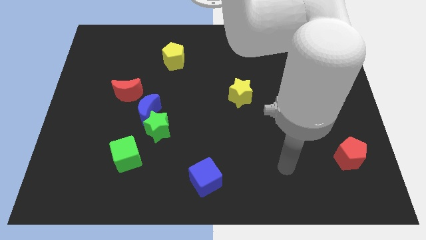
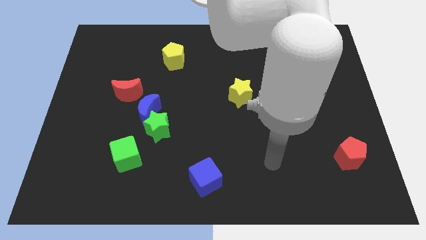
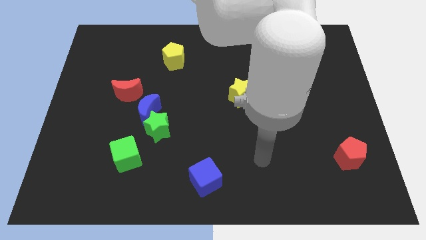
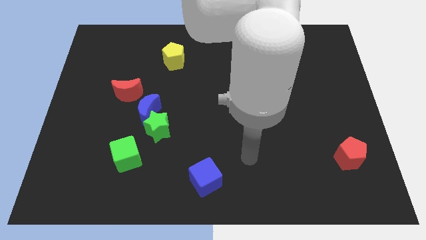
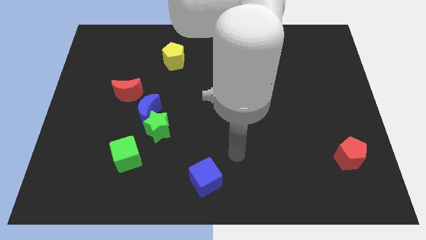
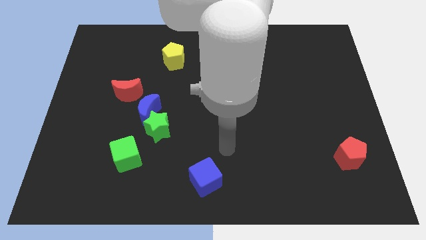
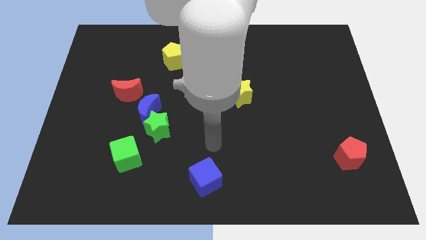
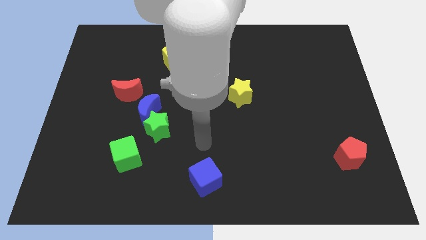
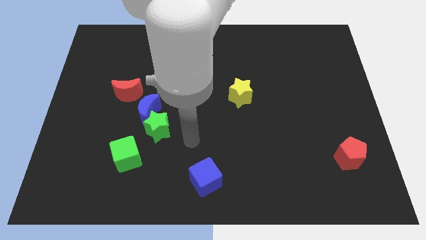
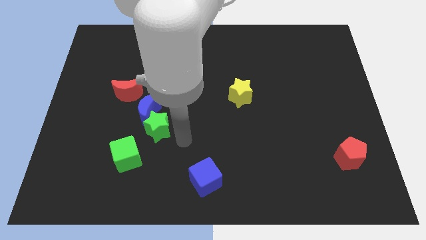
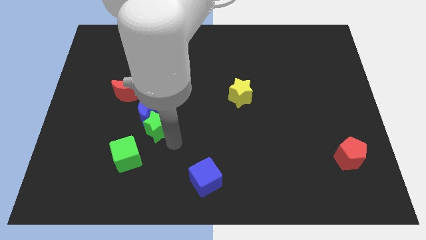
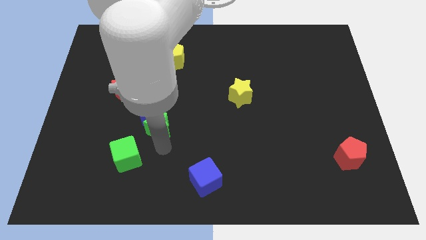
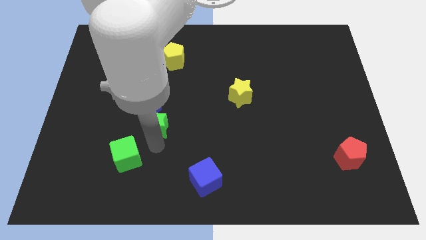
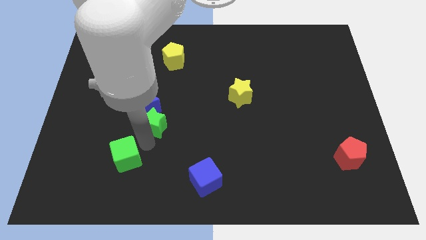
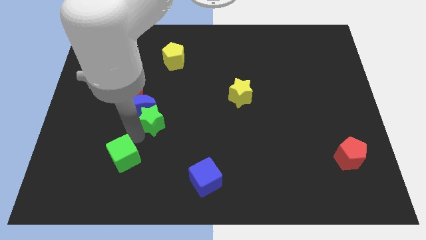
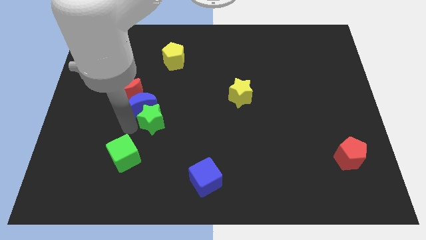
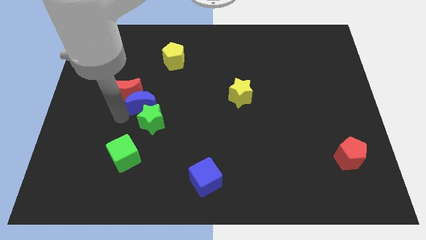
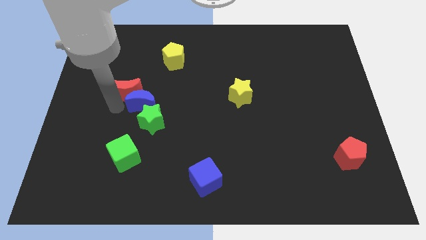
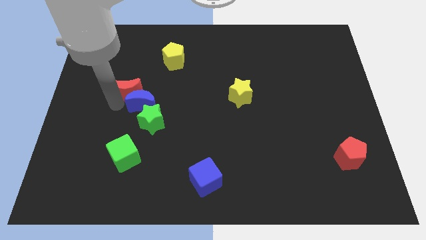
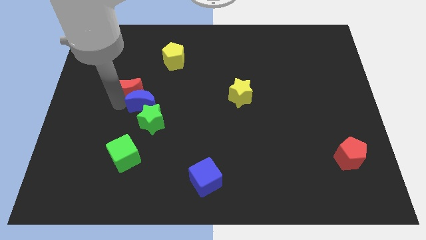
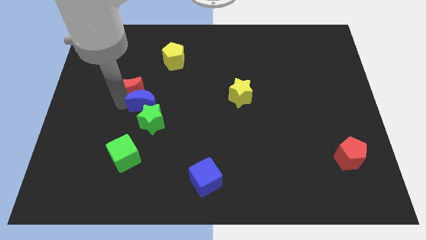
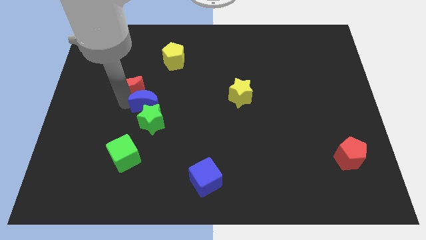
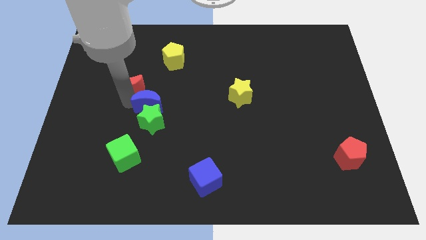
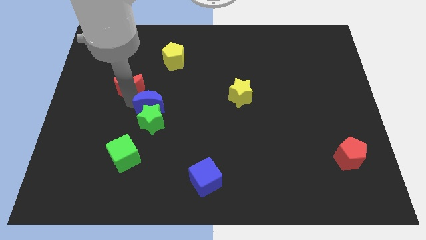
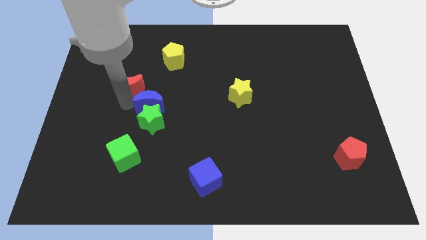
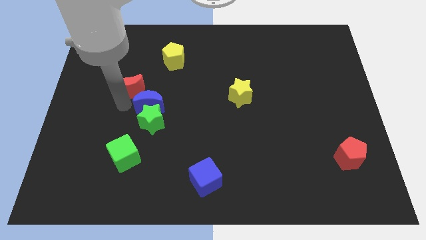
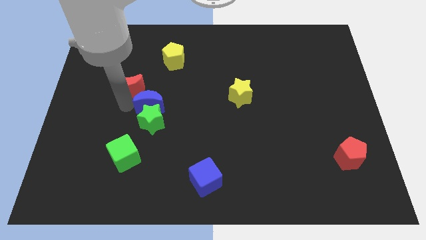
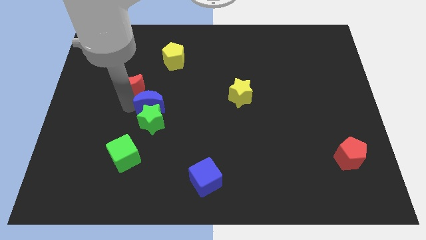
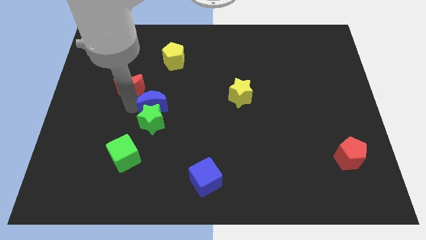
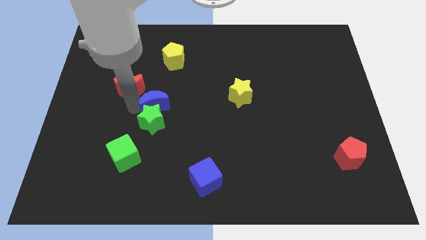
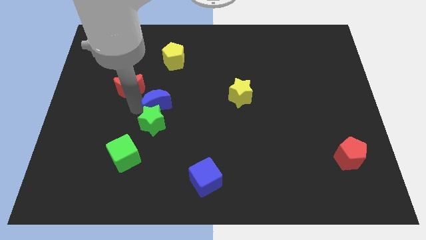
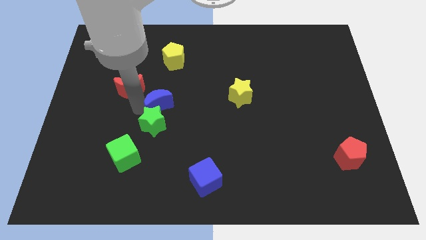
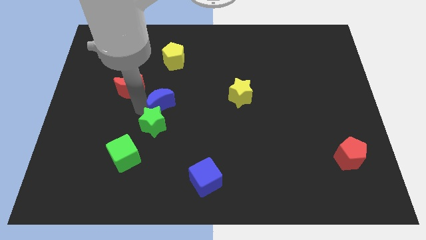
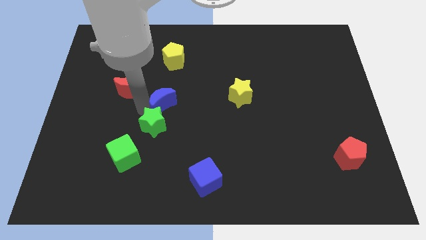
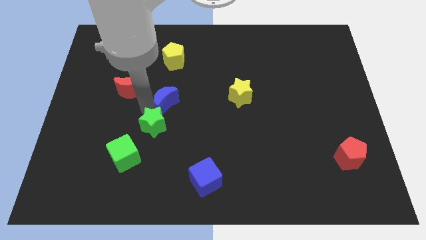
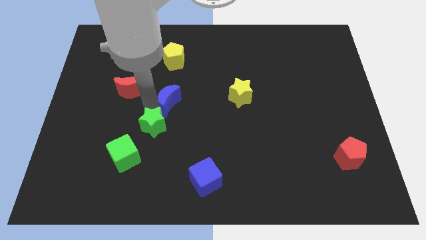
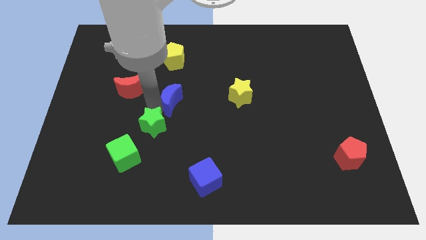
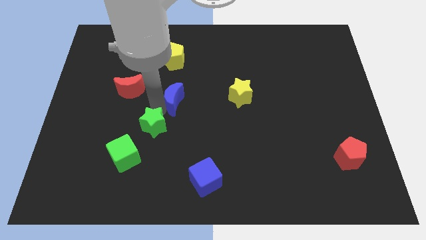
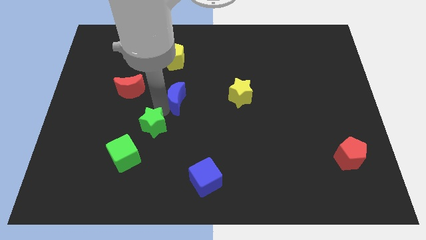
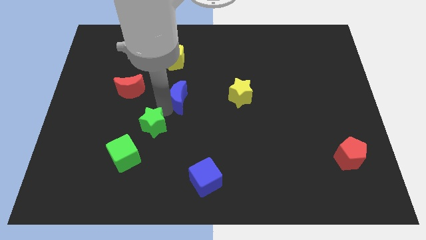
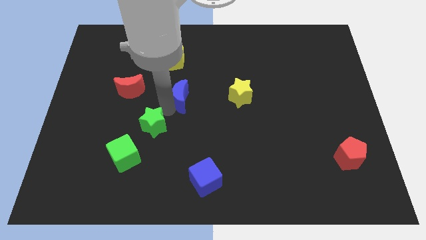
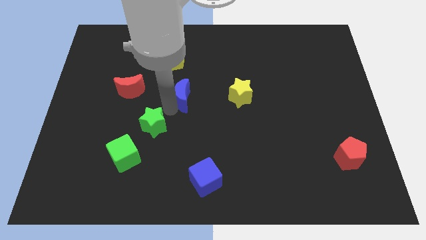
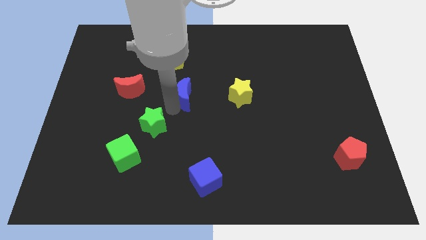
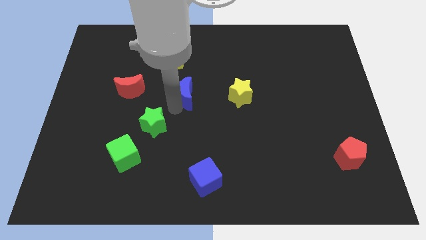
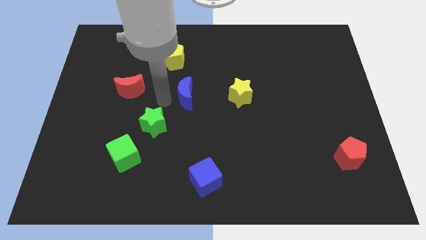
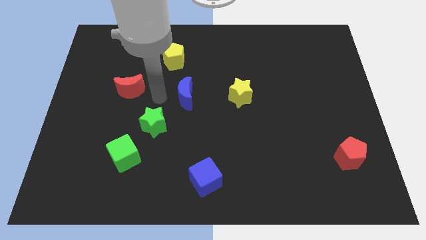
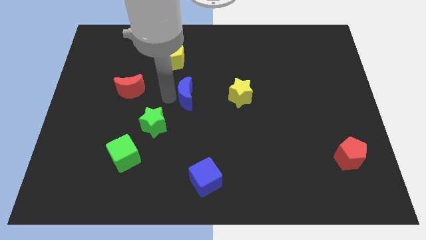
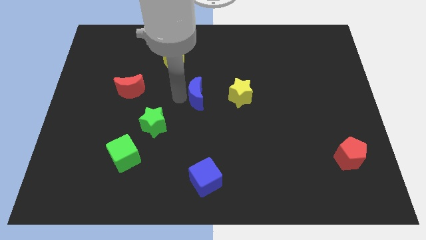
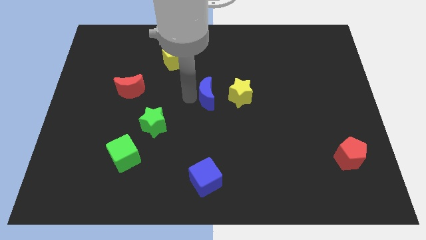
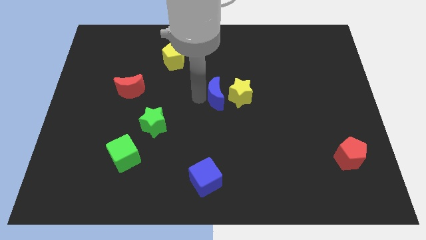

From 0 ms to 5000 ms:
slide the blue moon next to the yellow star

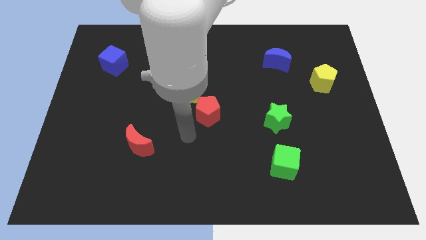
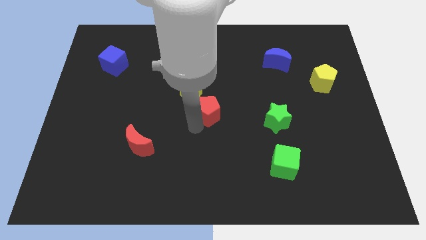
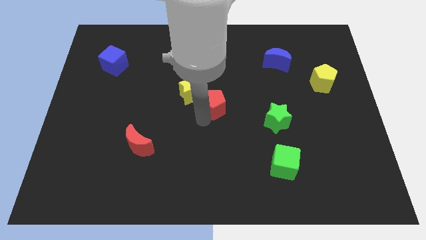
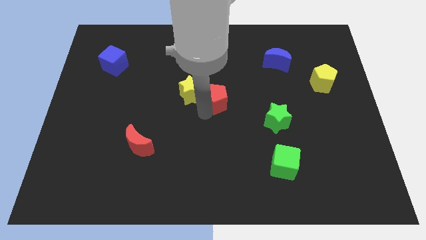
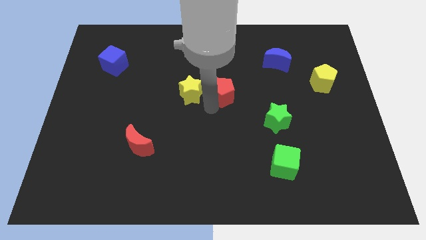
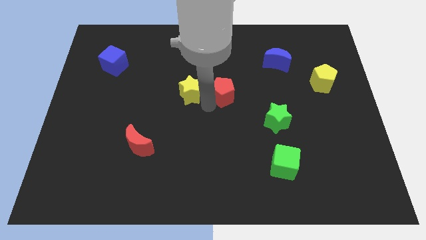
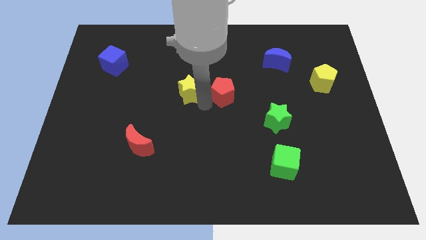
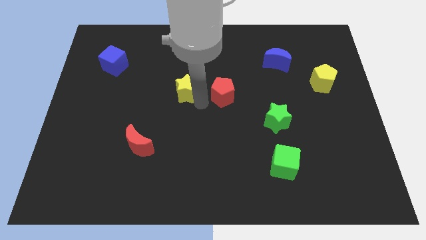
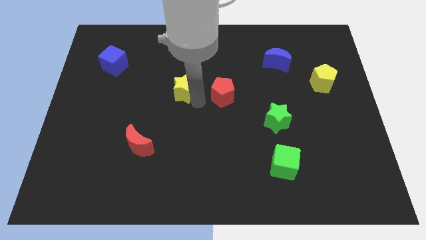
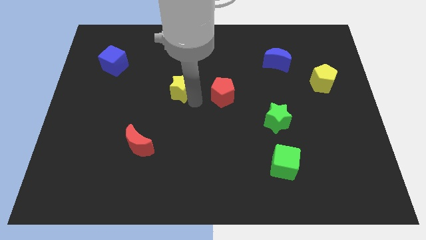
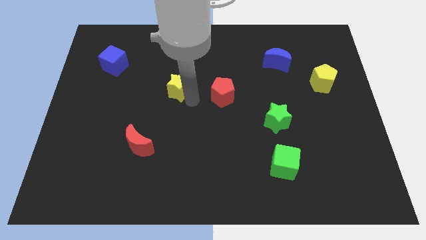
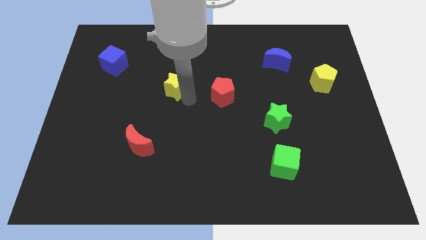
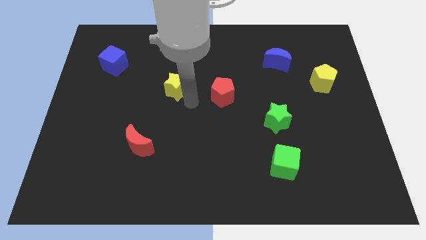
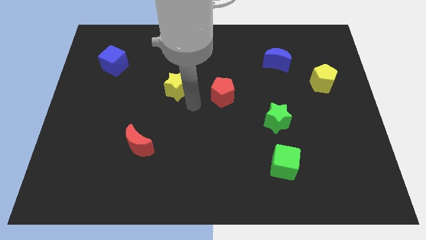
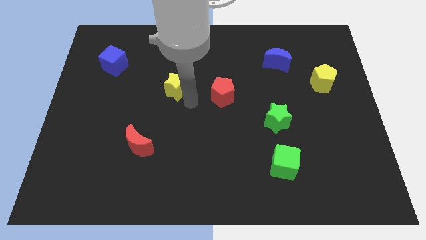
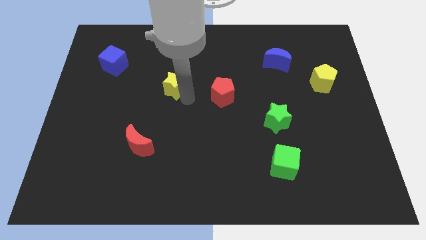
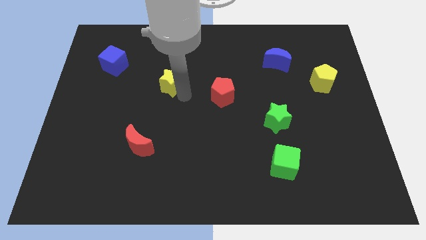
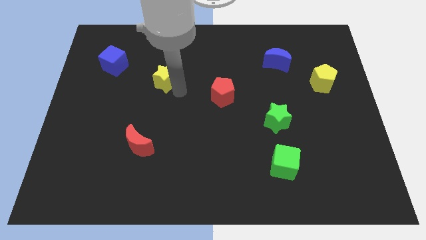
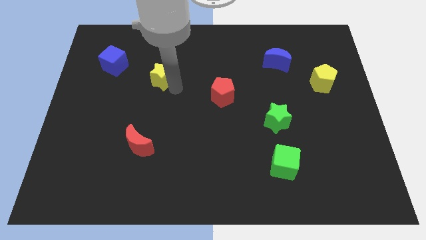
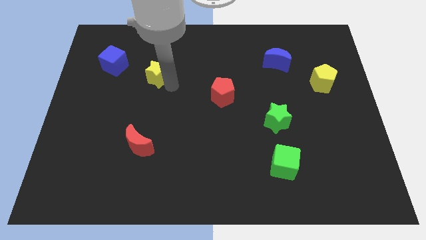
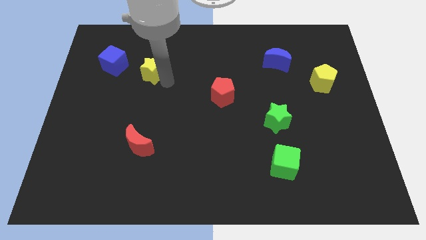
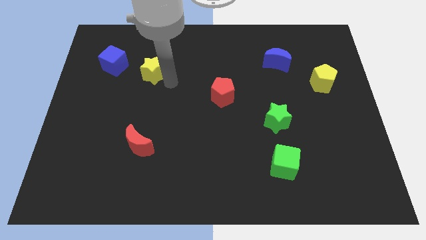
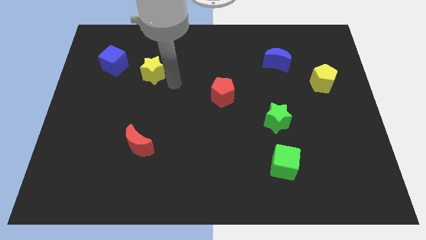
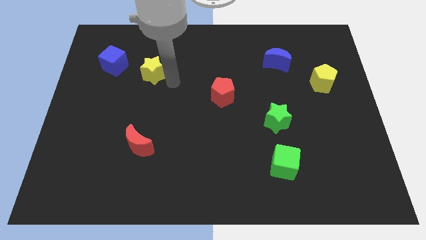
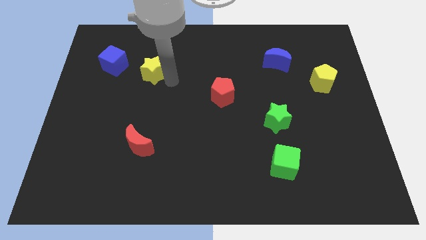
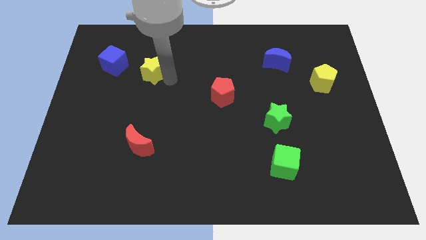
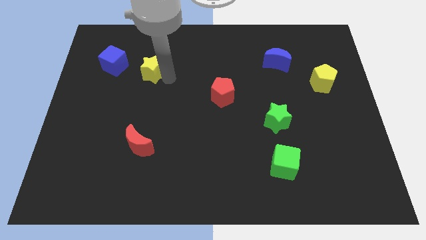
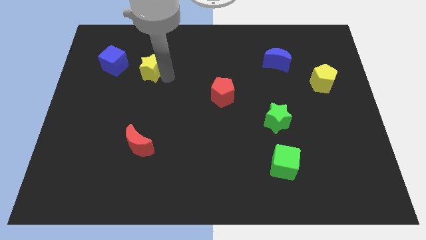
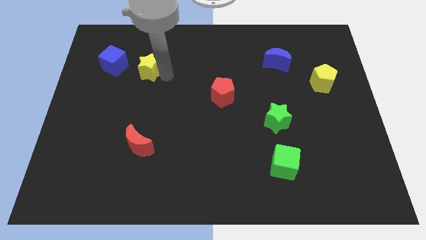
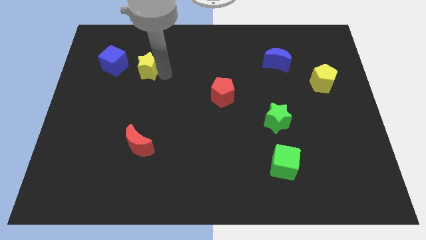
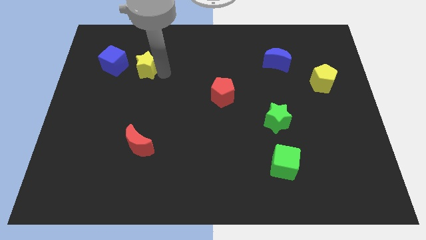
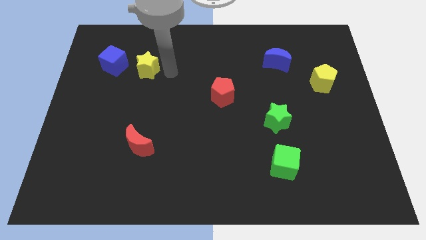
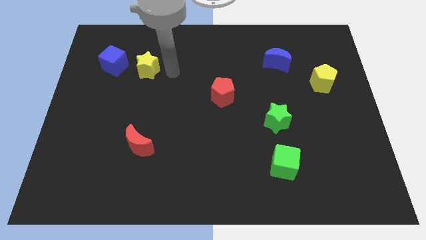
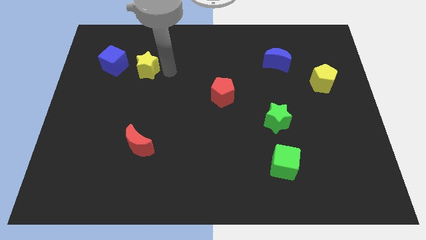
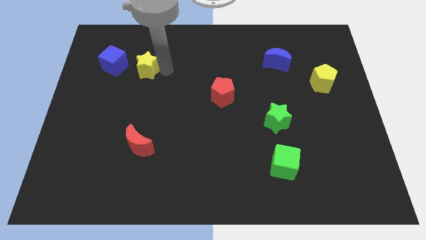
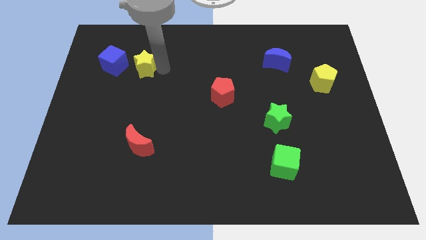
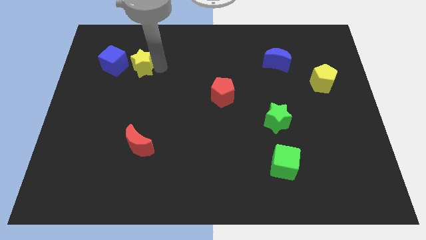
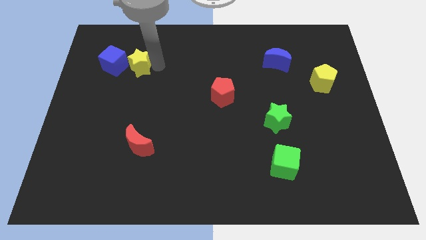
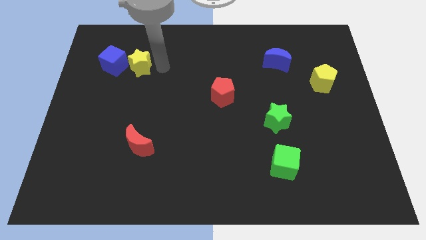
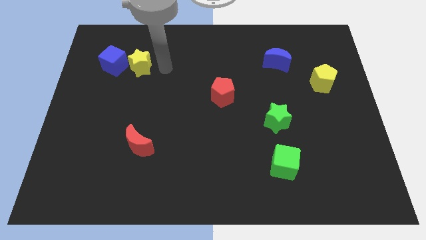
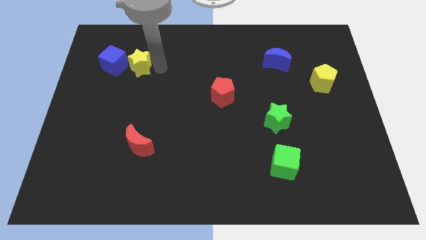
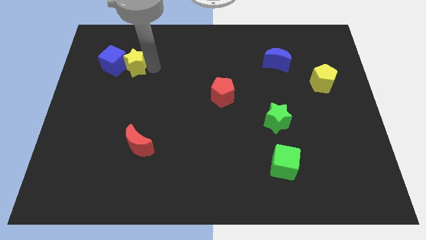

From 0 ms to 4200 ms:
put the yellow star close to the blue cube
